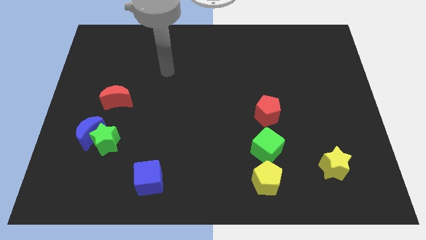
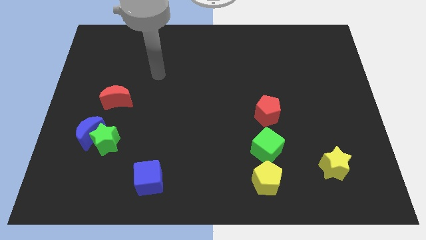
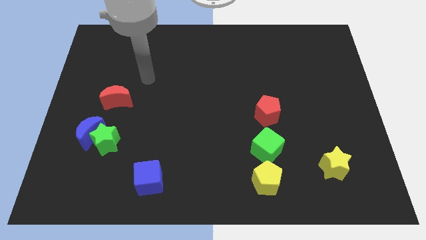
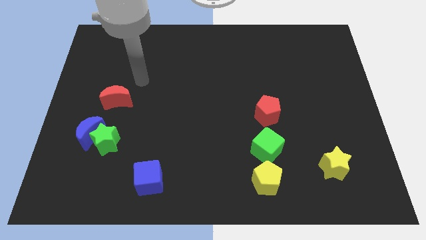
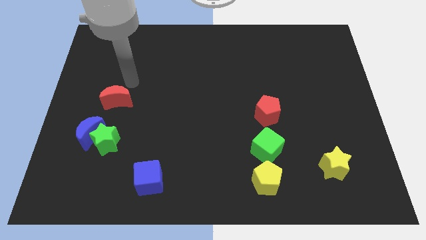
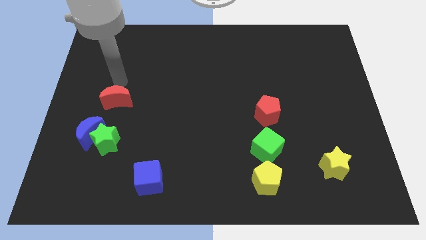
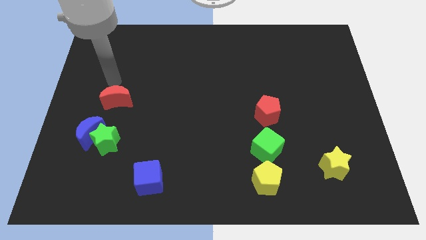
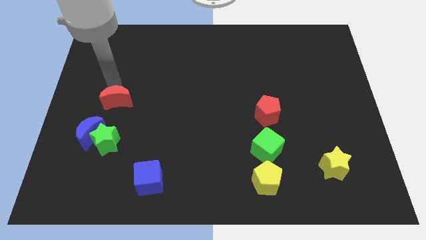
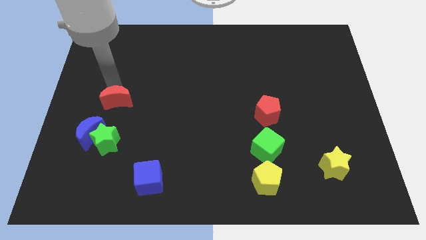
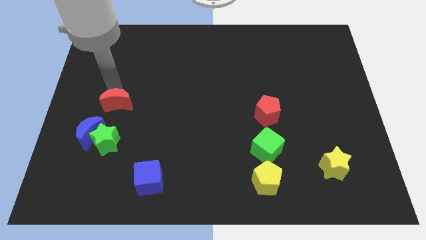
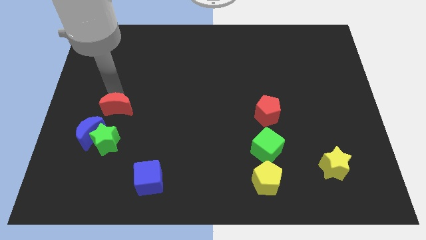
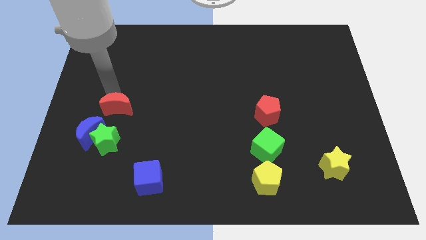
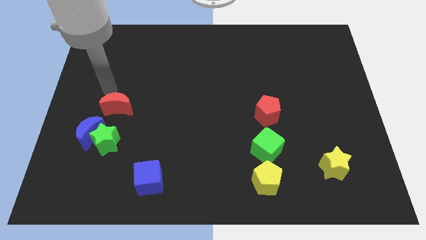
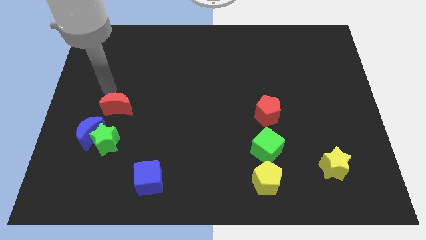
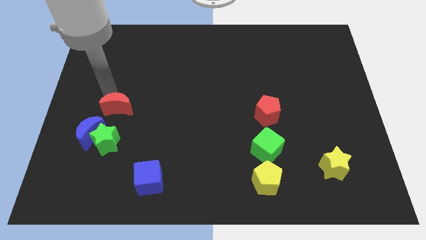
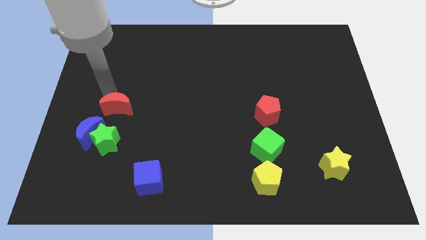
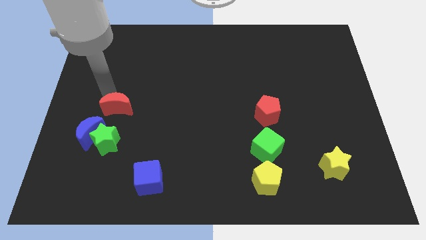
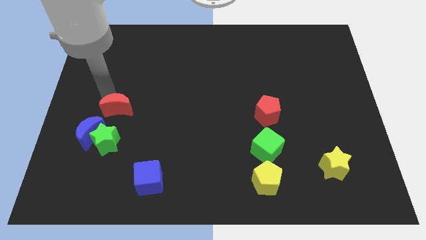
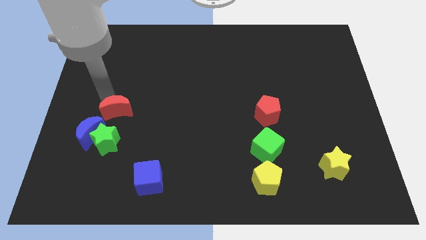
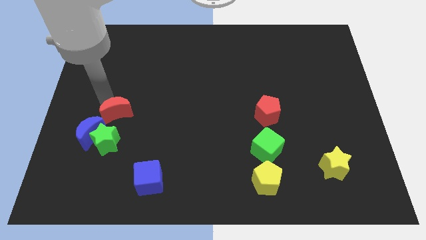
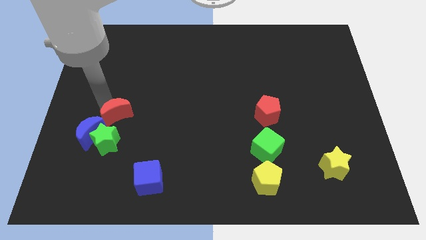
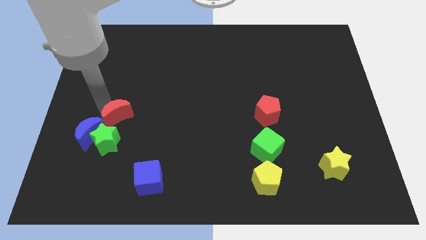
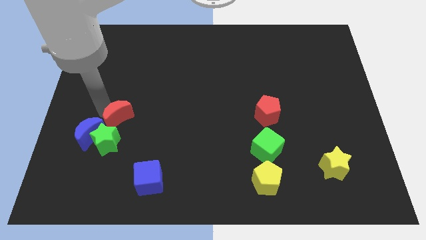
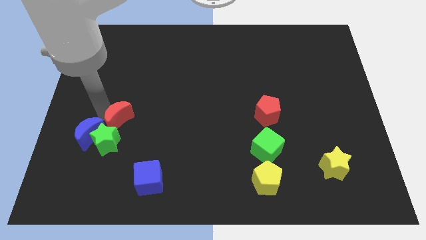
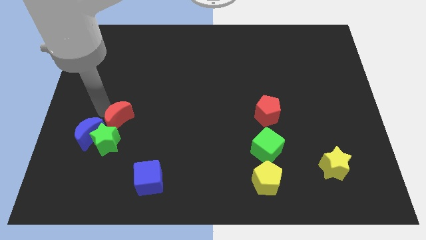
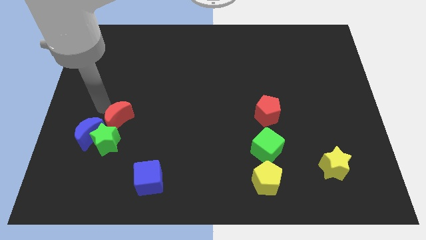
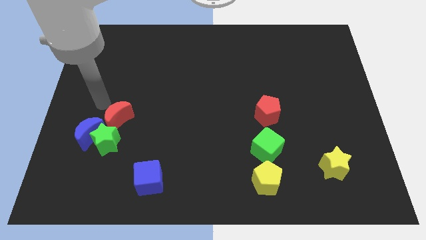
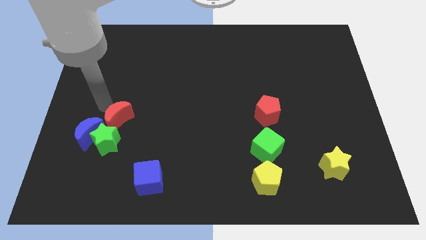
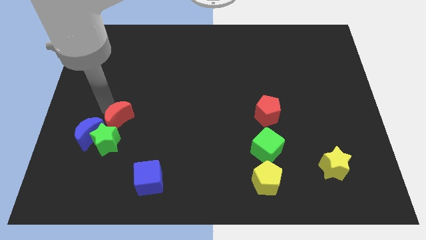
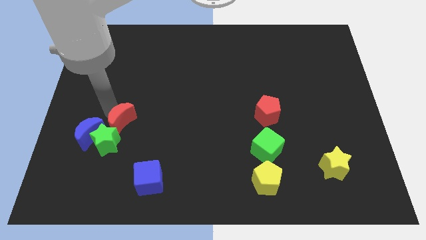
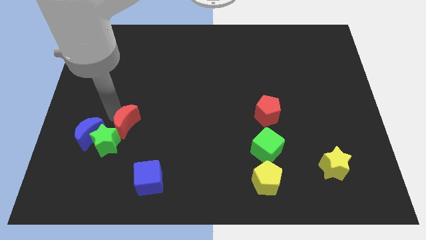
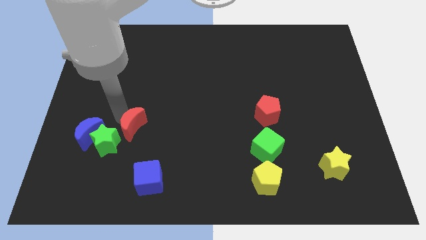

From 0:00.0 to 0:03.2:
slightly move the red moon down

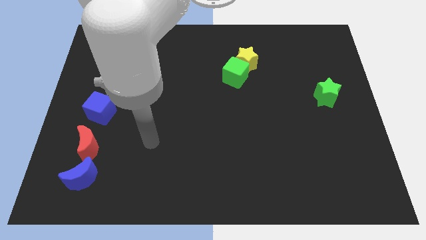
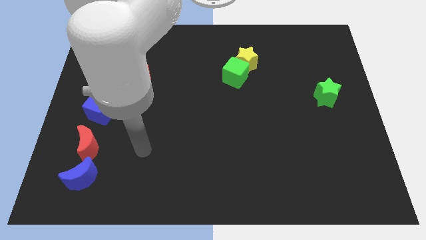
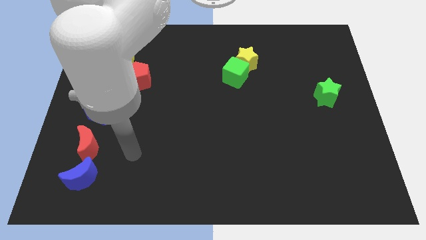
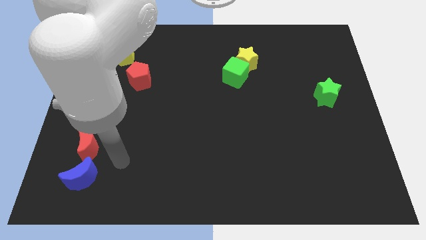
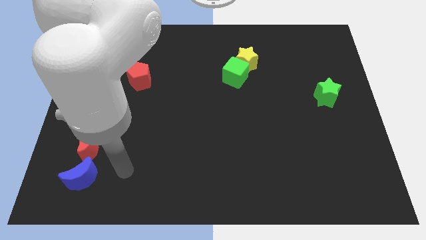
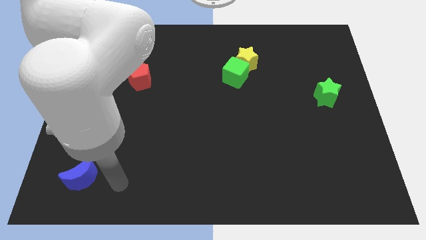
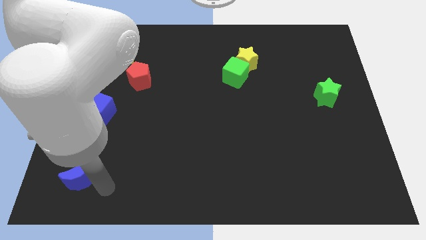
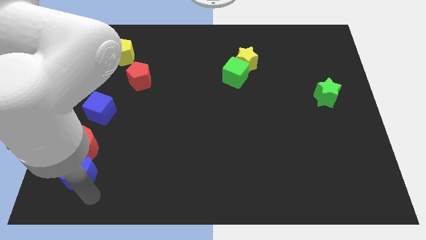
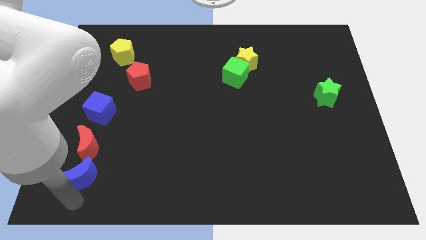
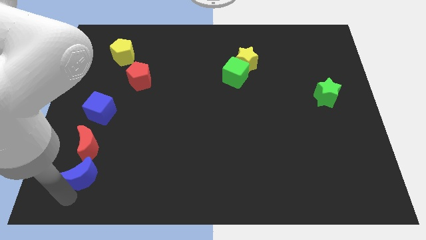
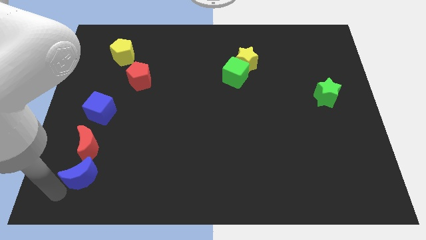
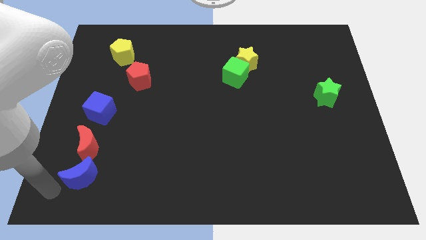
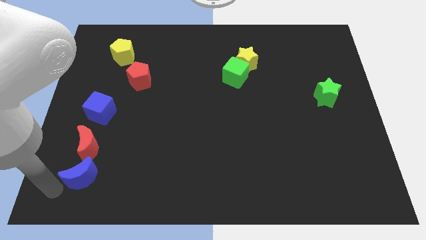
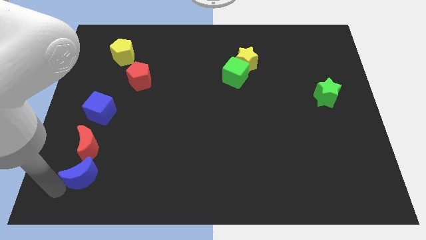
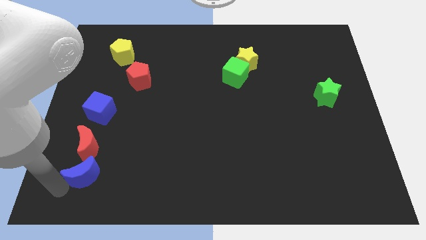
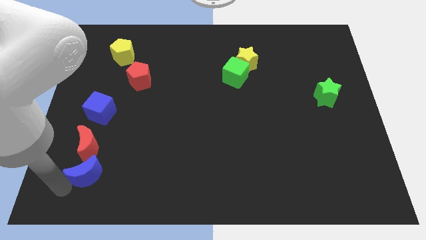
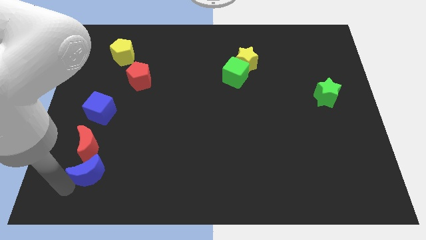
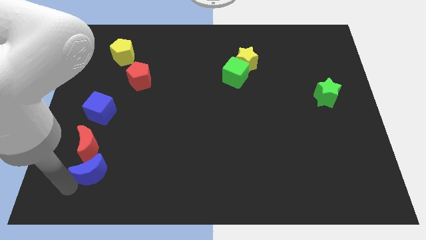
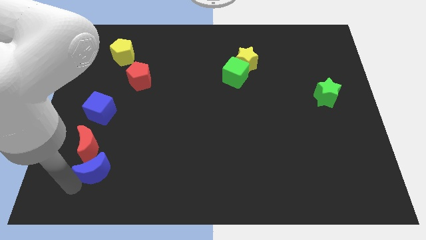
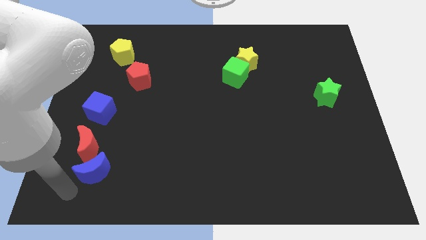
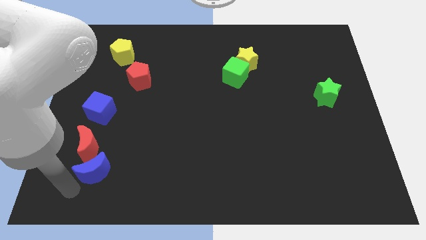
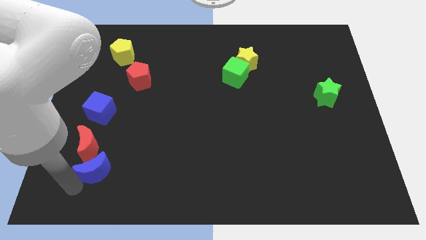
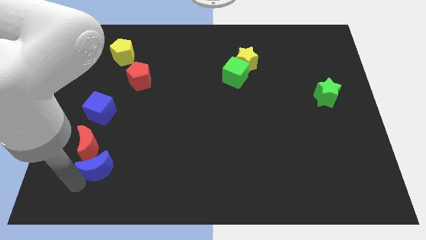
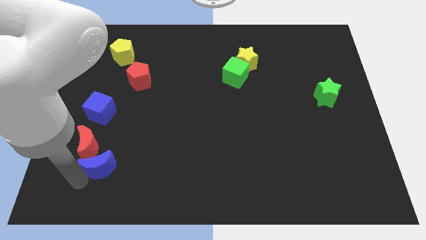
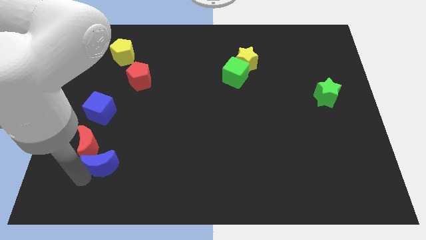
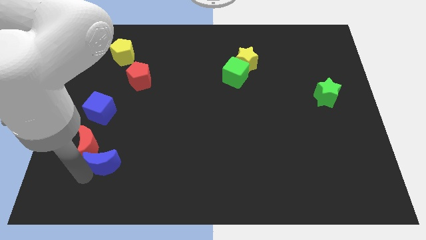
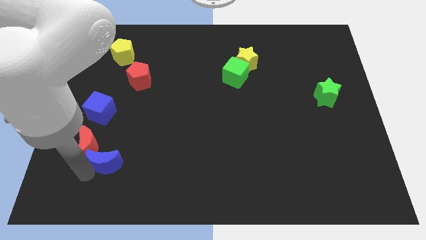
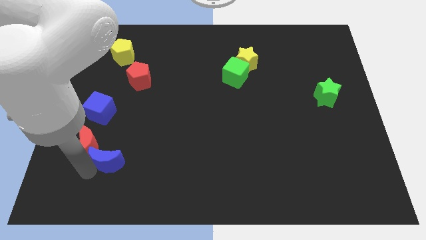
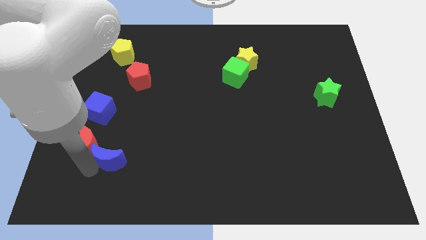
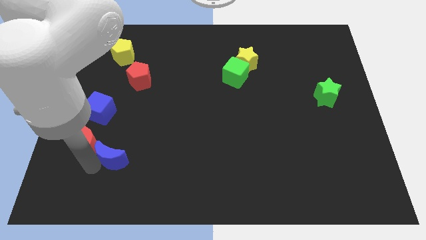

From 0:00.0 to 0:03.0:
push the blue moon upwards and right diagonally a little

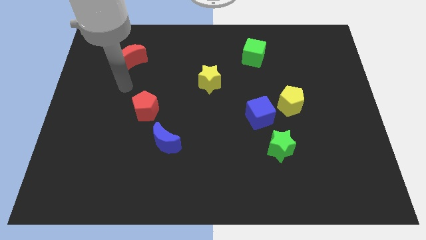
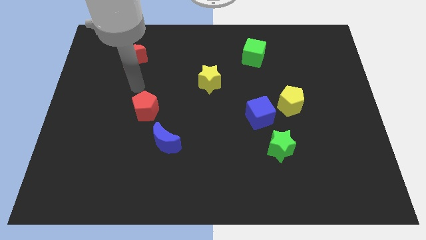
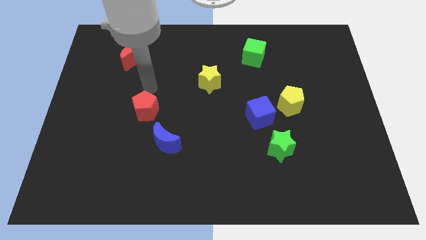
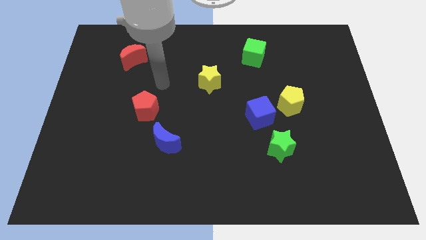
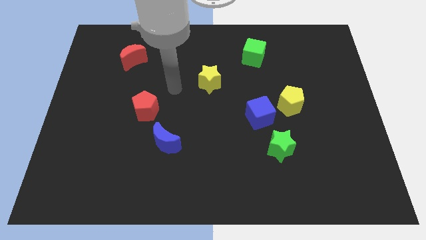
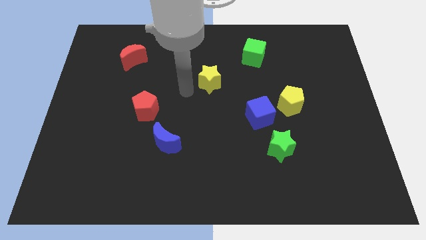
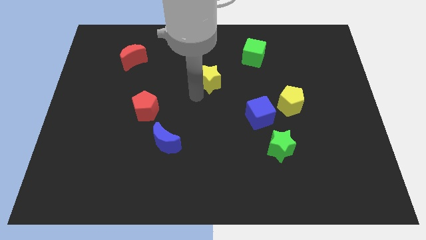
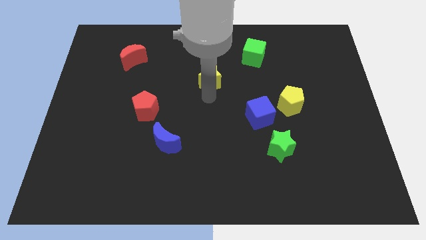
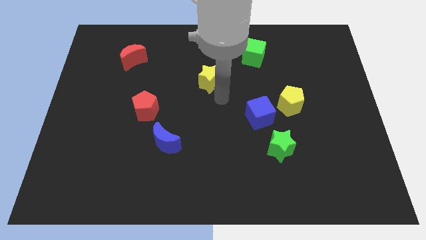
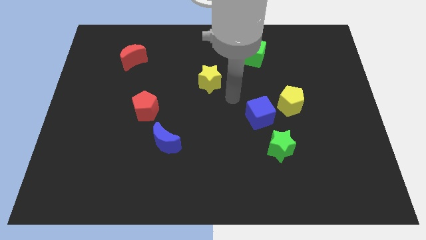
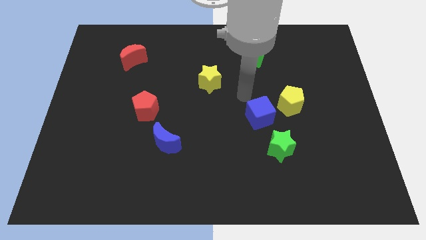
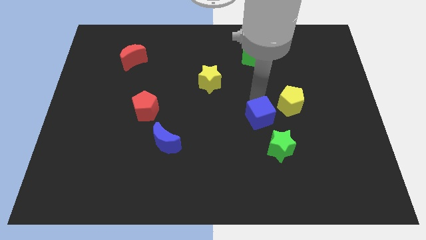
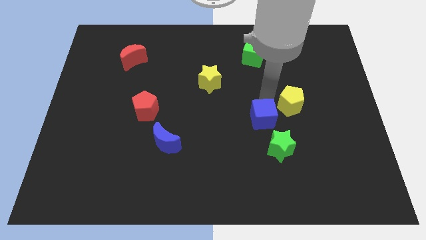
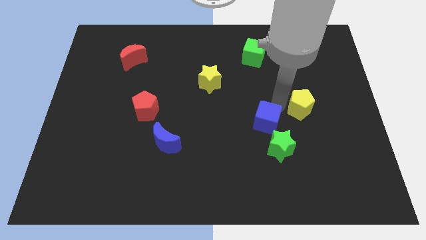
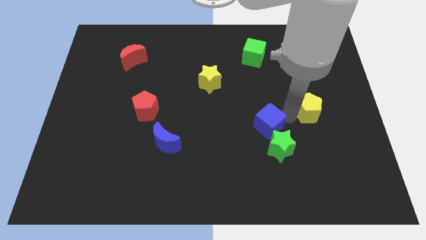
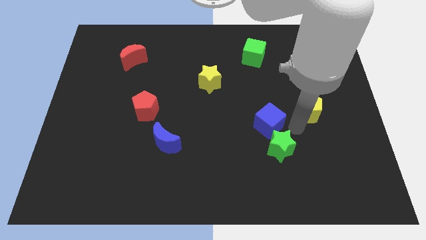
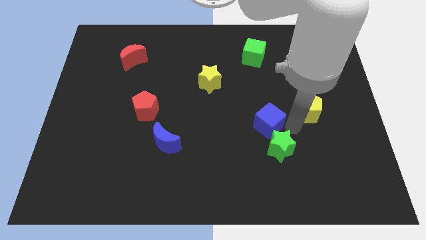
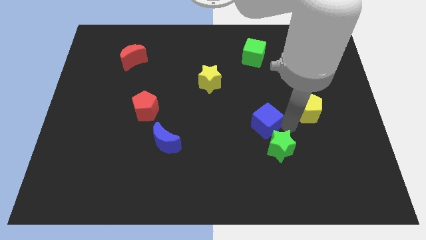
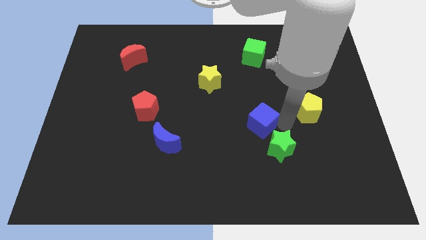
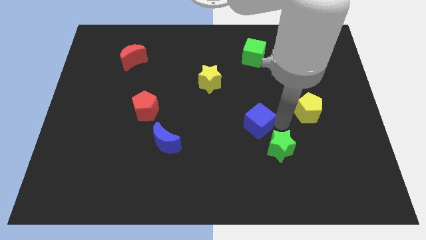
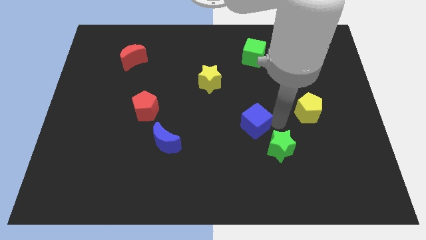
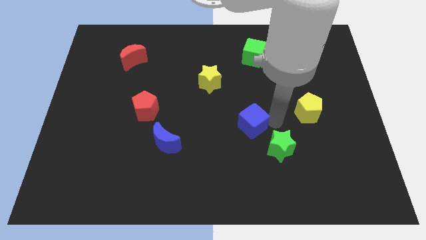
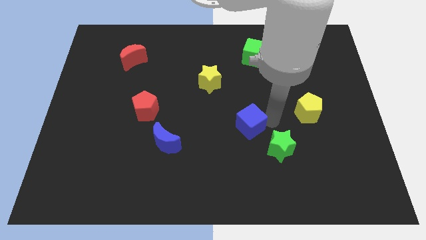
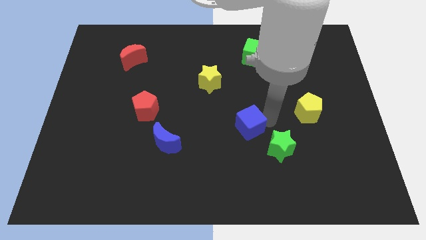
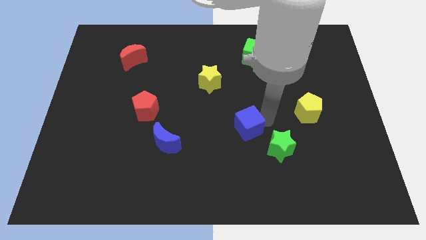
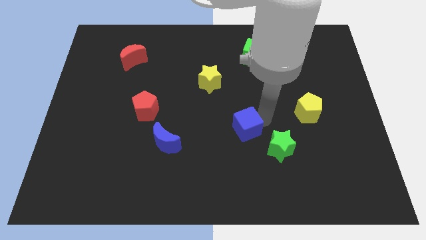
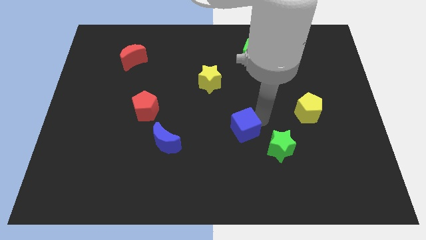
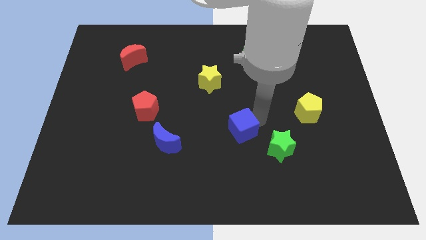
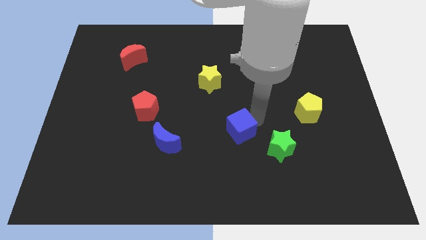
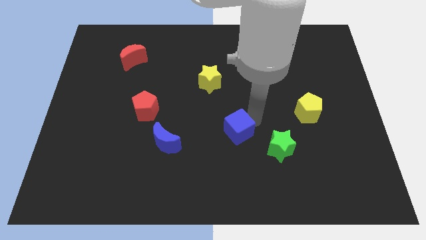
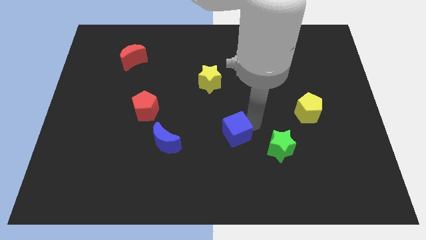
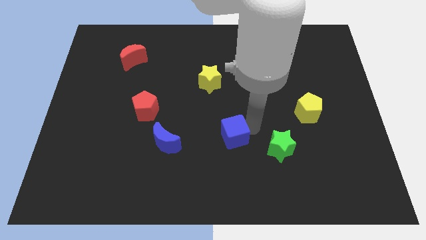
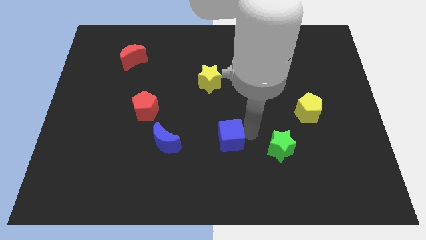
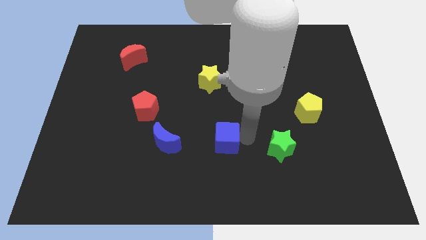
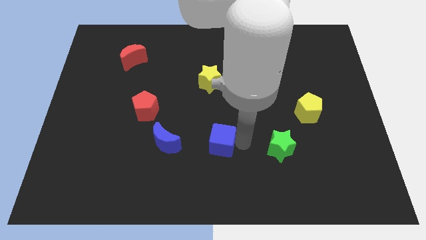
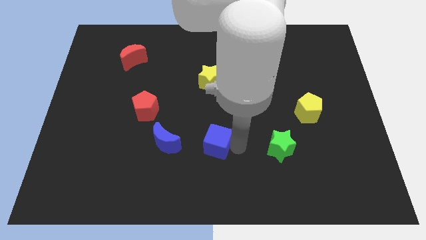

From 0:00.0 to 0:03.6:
slightly move the blue cube to the left
